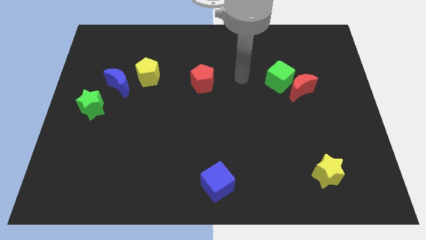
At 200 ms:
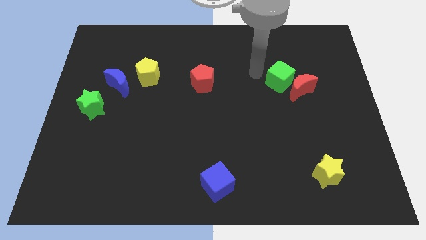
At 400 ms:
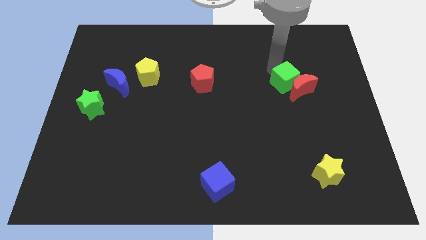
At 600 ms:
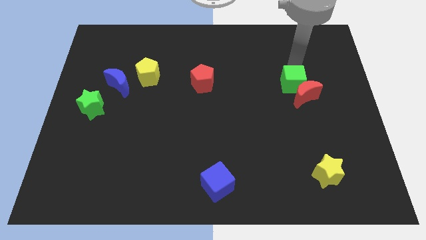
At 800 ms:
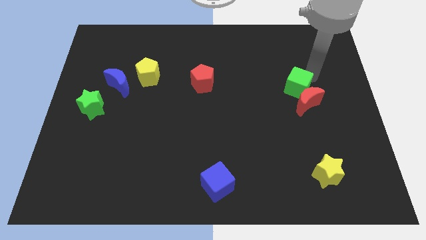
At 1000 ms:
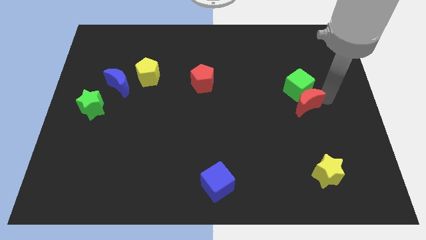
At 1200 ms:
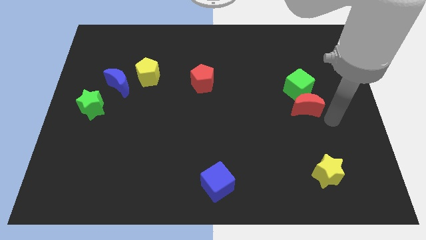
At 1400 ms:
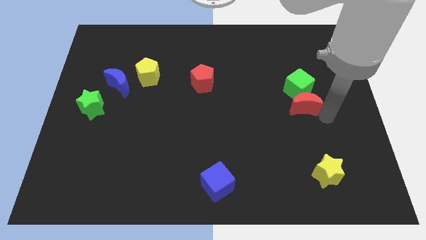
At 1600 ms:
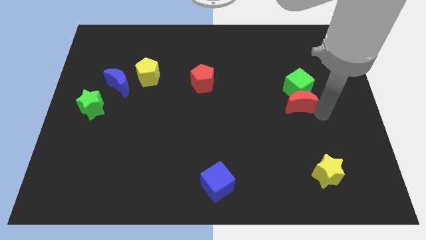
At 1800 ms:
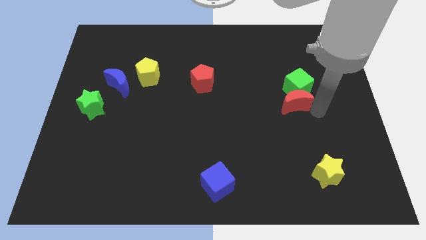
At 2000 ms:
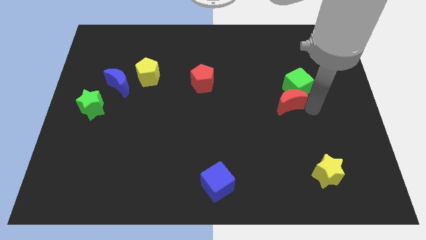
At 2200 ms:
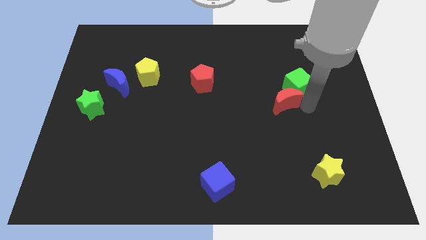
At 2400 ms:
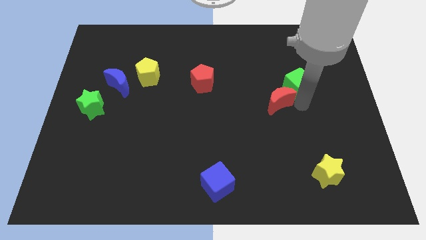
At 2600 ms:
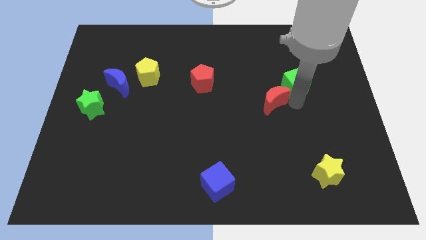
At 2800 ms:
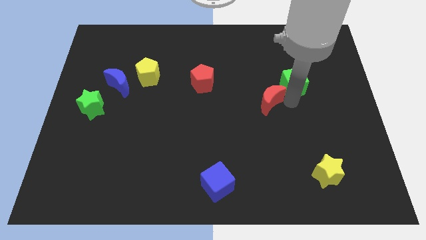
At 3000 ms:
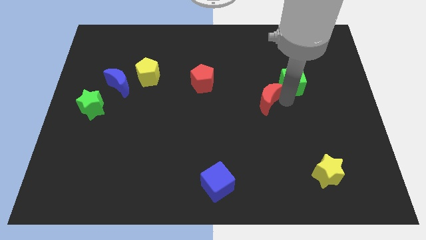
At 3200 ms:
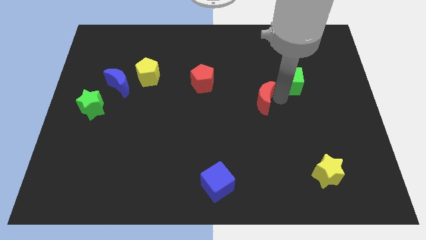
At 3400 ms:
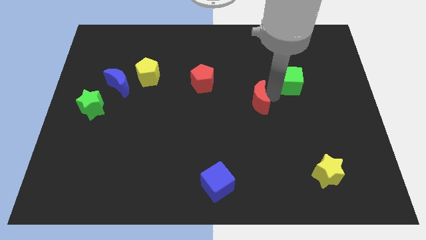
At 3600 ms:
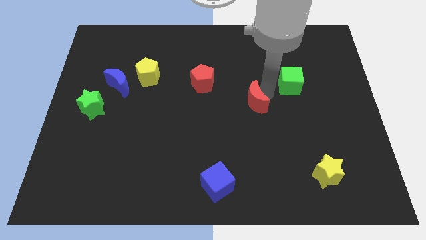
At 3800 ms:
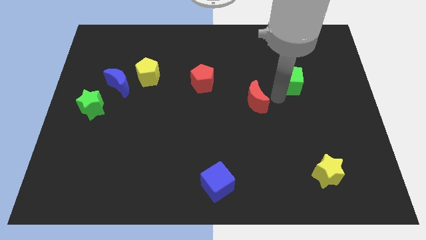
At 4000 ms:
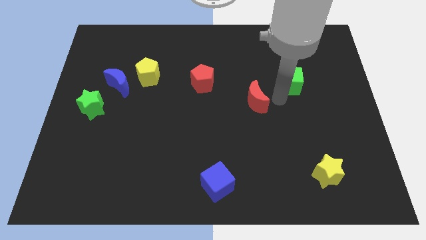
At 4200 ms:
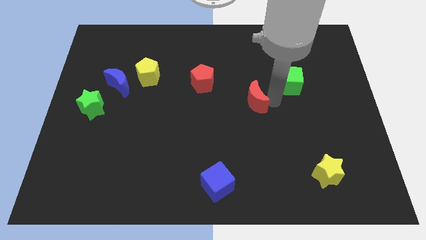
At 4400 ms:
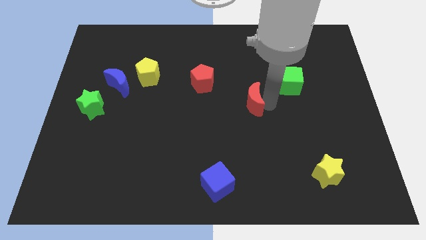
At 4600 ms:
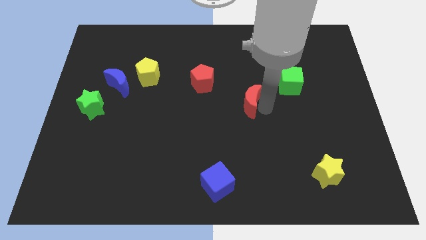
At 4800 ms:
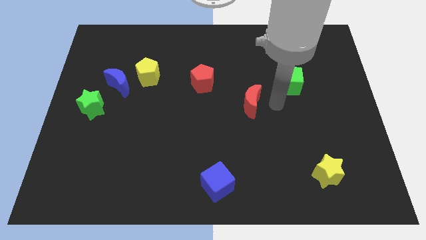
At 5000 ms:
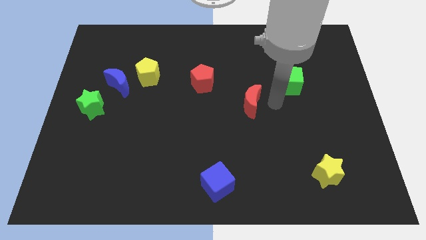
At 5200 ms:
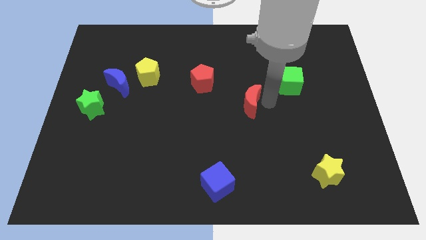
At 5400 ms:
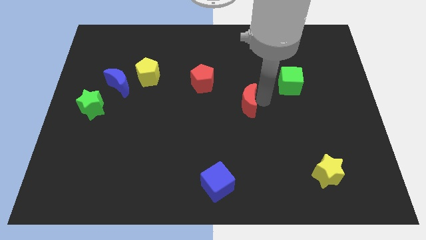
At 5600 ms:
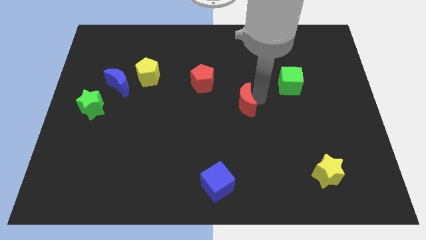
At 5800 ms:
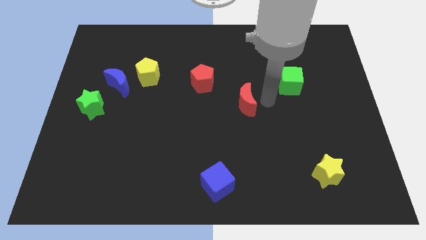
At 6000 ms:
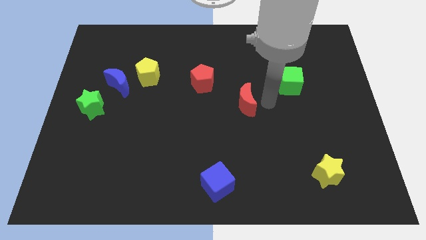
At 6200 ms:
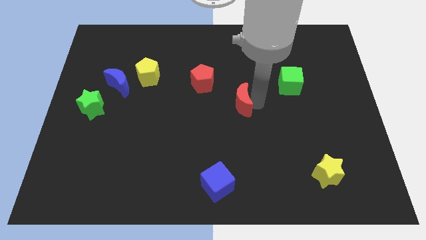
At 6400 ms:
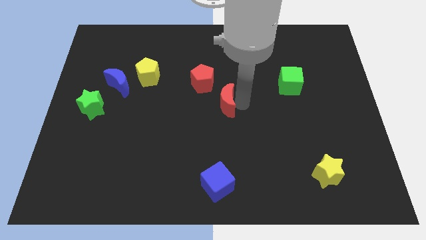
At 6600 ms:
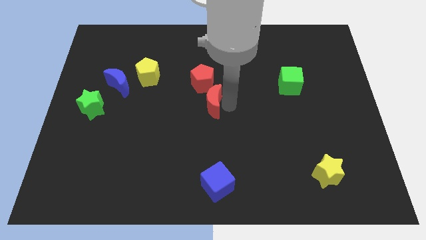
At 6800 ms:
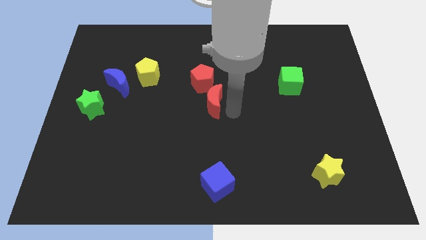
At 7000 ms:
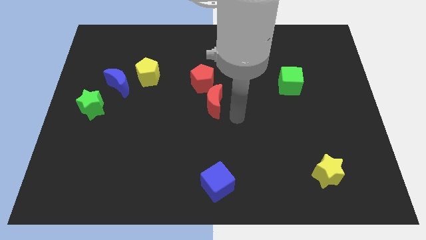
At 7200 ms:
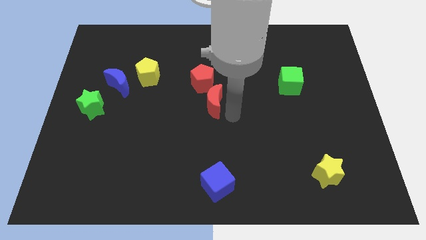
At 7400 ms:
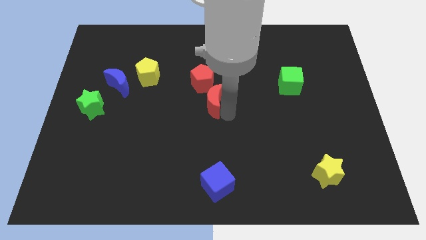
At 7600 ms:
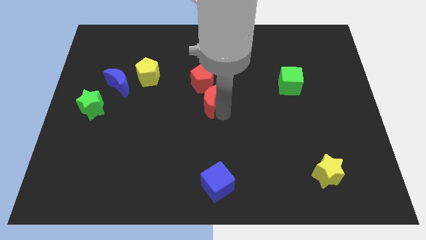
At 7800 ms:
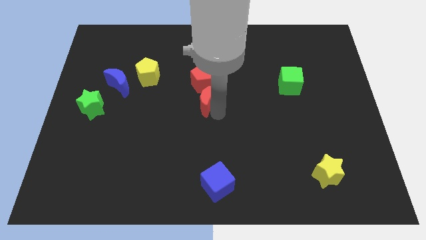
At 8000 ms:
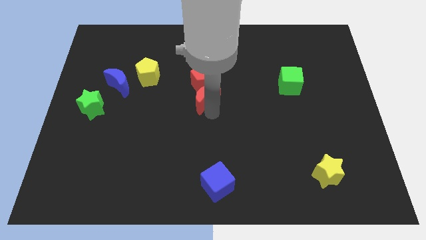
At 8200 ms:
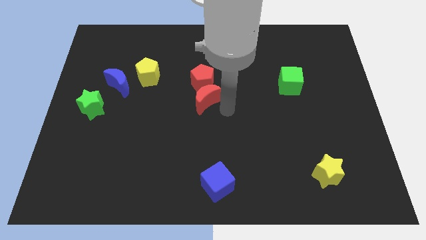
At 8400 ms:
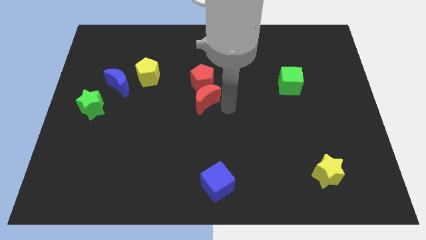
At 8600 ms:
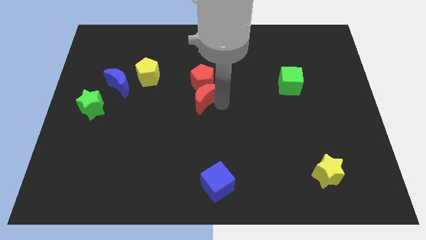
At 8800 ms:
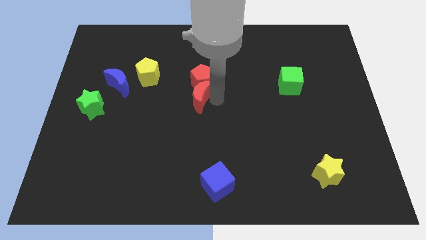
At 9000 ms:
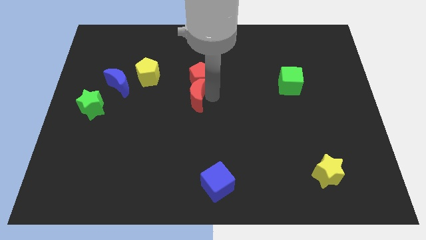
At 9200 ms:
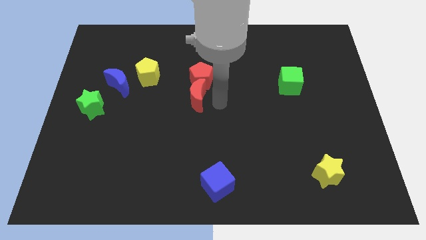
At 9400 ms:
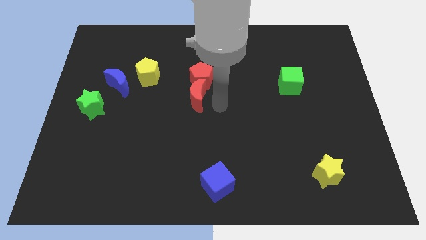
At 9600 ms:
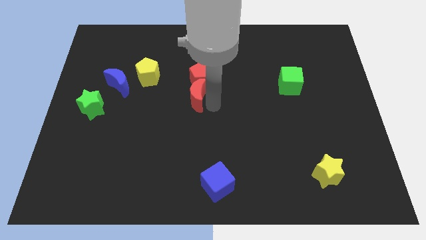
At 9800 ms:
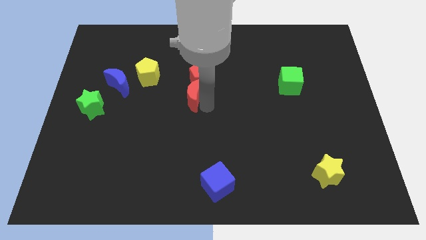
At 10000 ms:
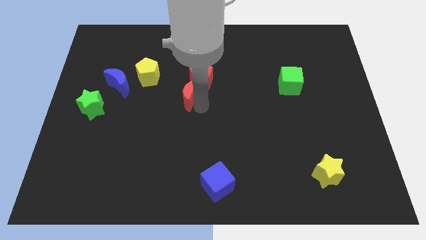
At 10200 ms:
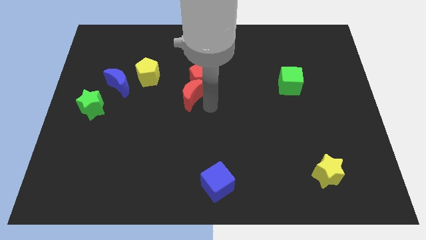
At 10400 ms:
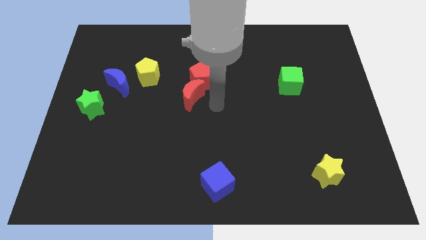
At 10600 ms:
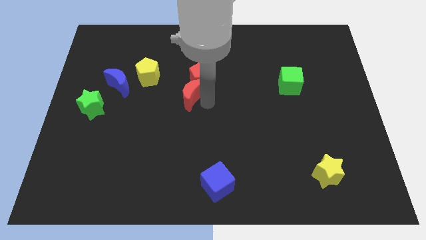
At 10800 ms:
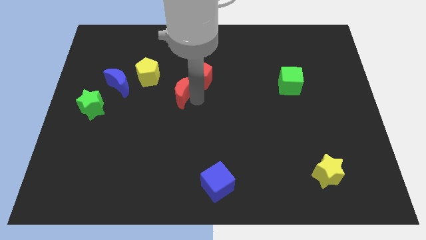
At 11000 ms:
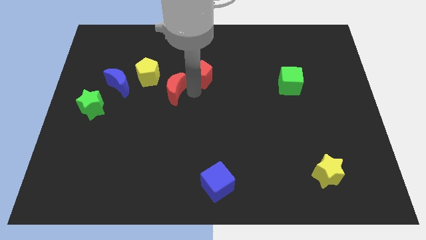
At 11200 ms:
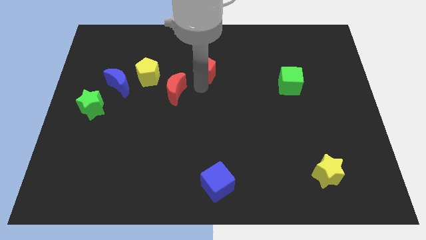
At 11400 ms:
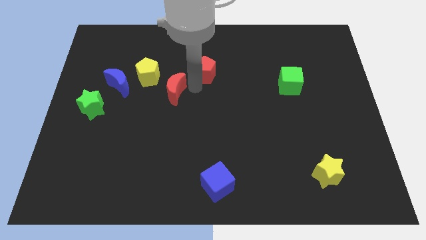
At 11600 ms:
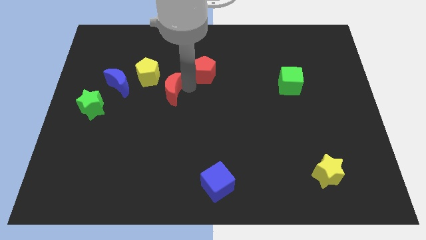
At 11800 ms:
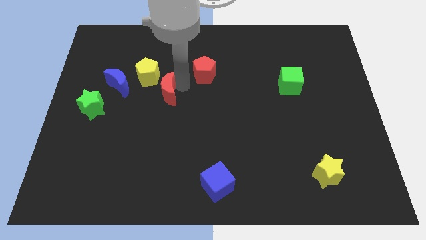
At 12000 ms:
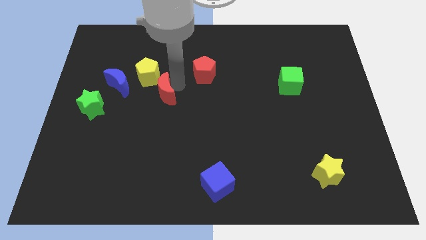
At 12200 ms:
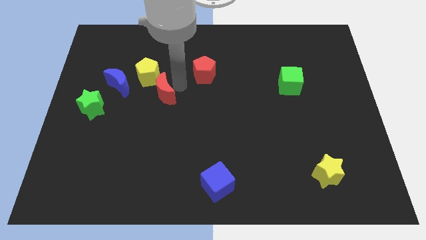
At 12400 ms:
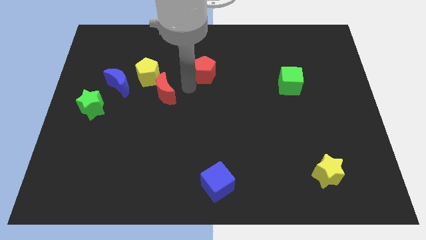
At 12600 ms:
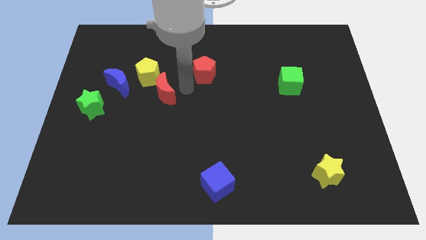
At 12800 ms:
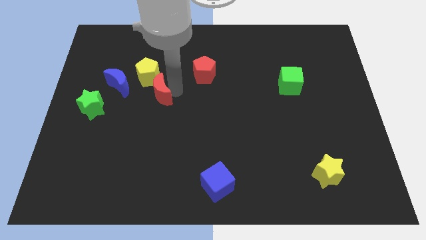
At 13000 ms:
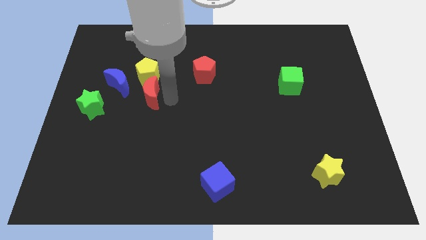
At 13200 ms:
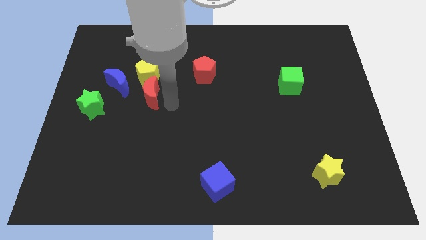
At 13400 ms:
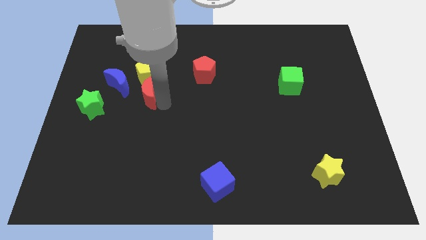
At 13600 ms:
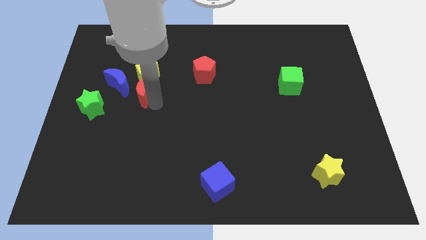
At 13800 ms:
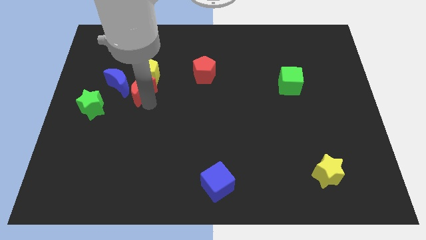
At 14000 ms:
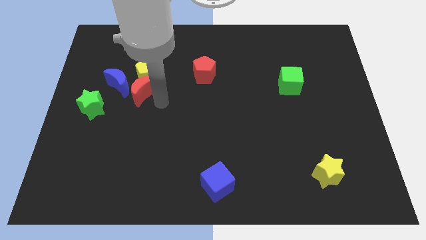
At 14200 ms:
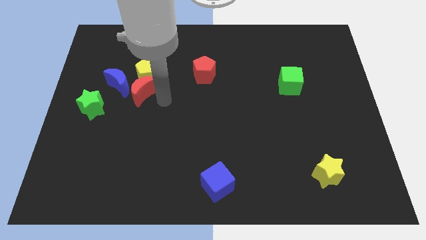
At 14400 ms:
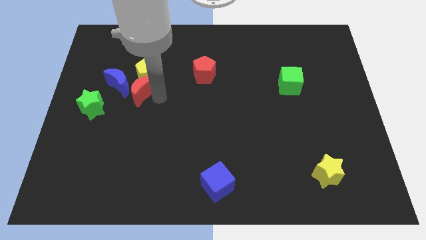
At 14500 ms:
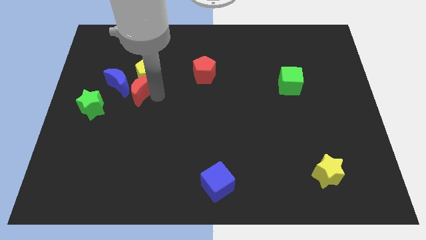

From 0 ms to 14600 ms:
slide the red moon to the blue moon
